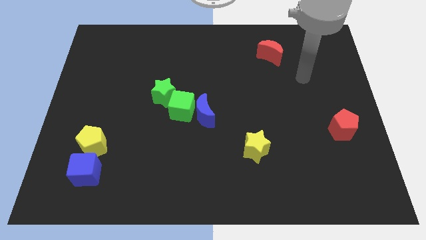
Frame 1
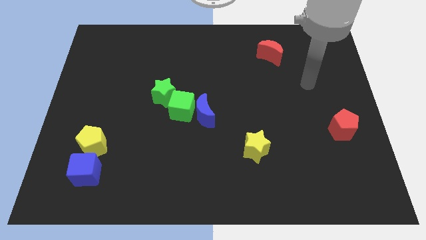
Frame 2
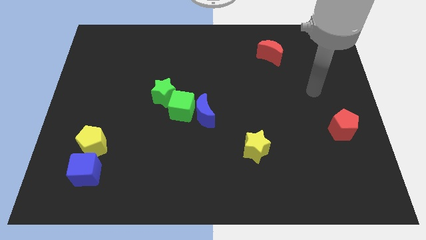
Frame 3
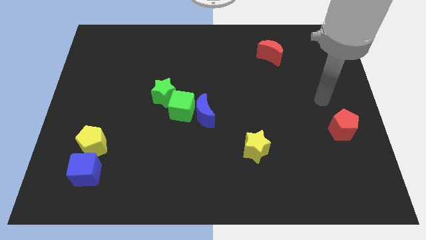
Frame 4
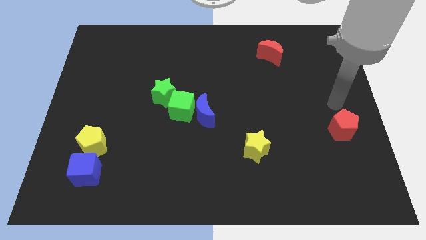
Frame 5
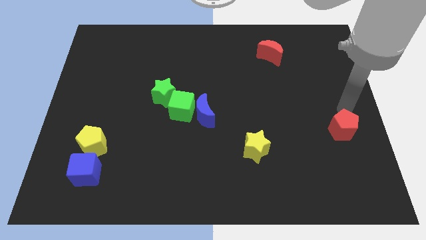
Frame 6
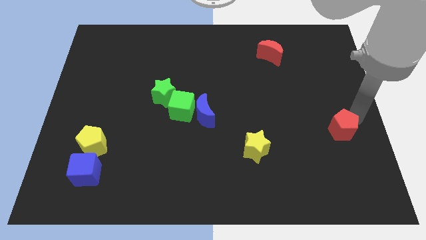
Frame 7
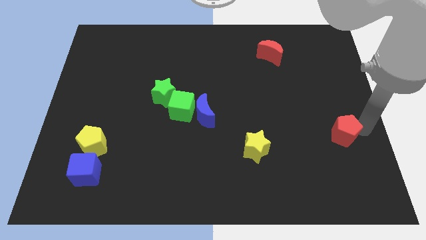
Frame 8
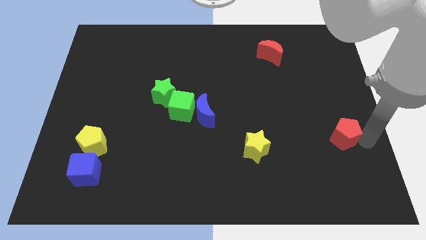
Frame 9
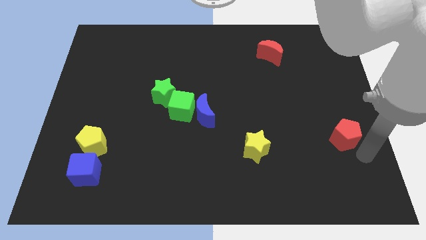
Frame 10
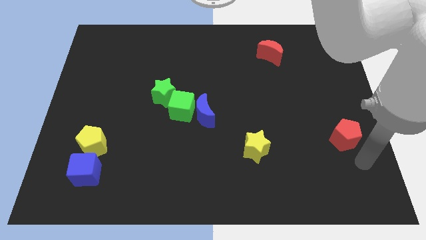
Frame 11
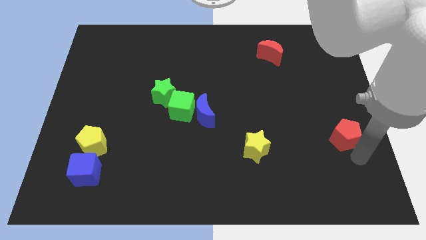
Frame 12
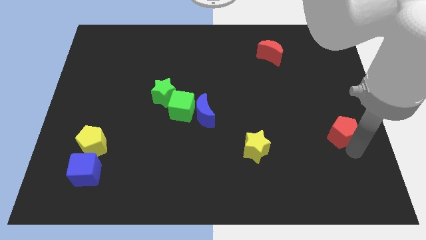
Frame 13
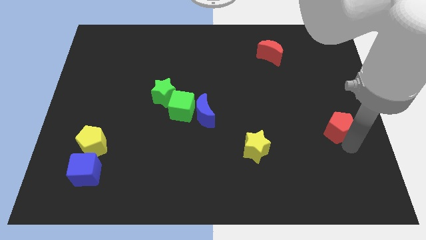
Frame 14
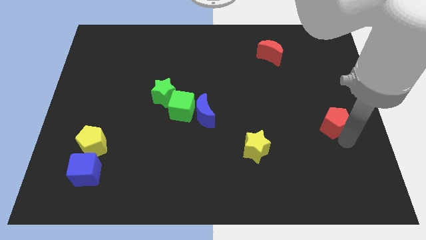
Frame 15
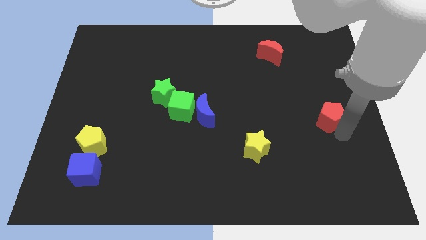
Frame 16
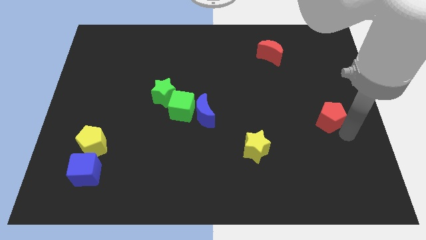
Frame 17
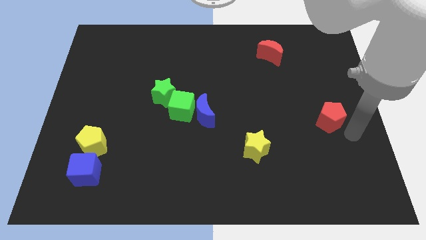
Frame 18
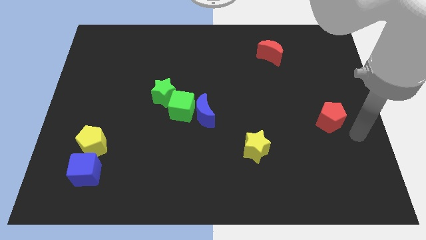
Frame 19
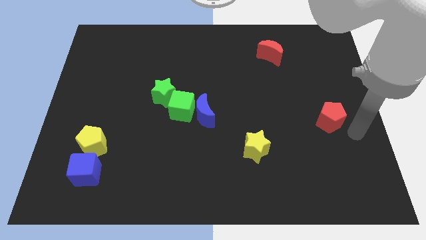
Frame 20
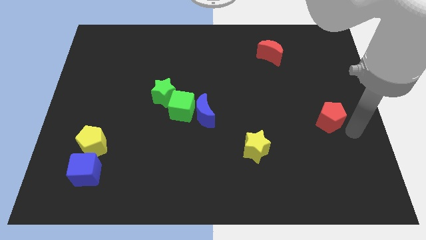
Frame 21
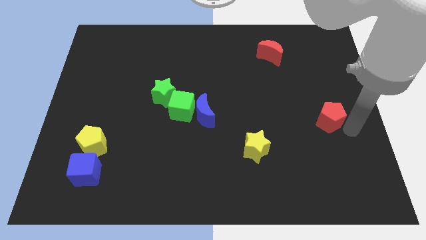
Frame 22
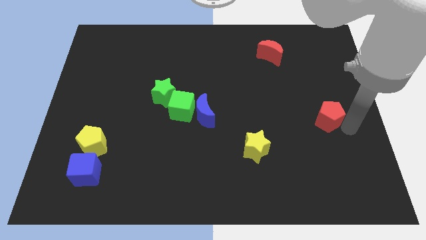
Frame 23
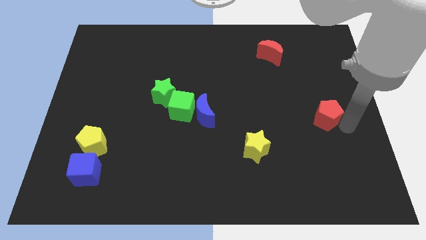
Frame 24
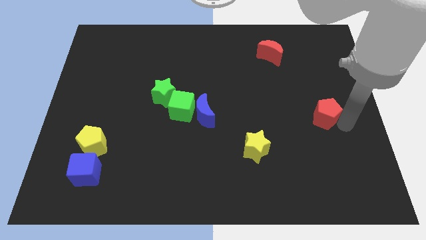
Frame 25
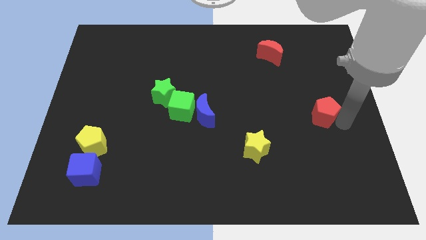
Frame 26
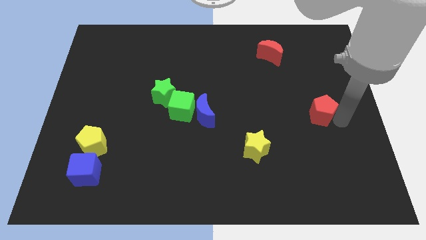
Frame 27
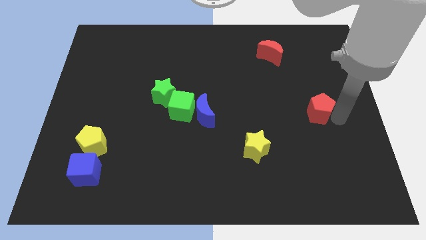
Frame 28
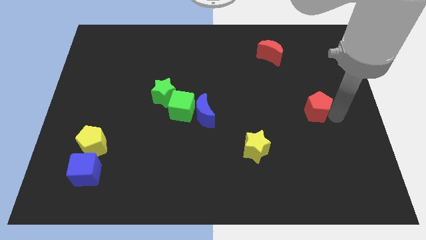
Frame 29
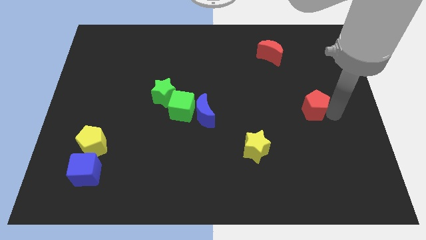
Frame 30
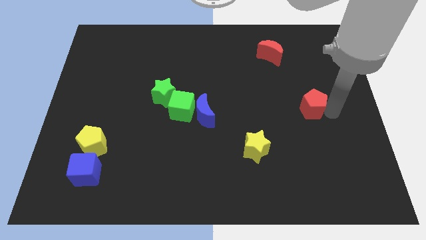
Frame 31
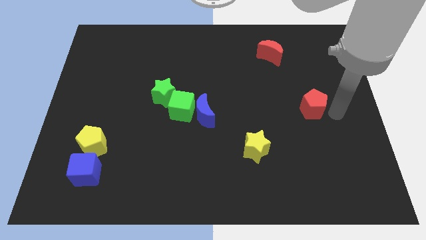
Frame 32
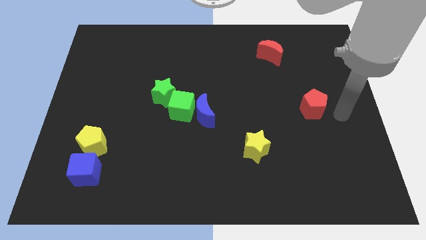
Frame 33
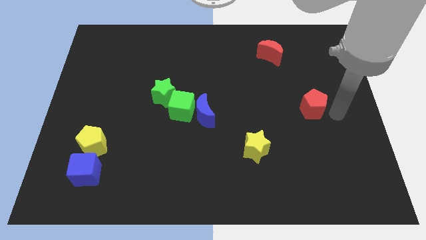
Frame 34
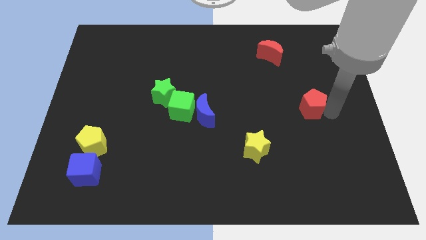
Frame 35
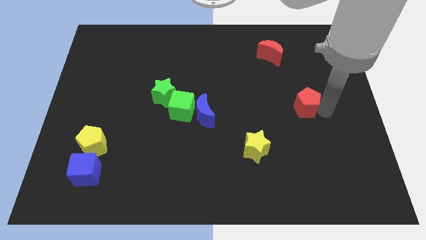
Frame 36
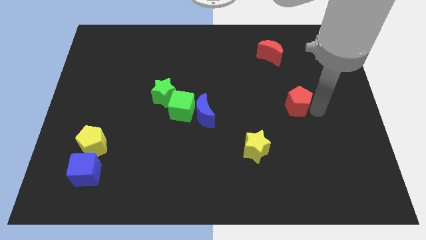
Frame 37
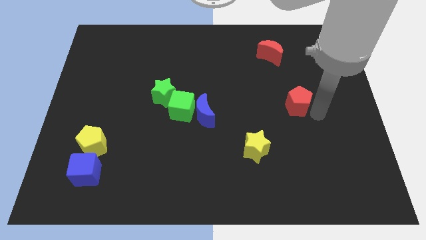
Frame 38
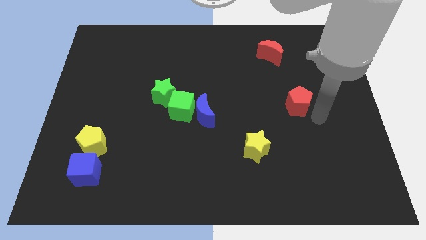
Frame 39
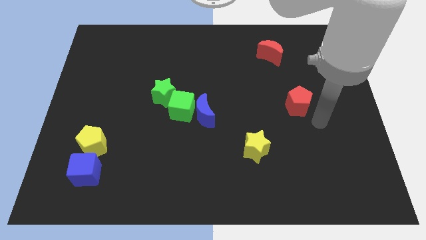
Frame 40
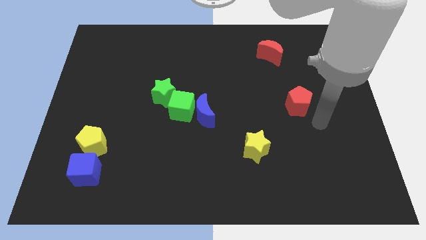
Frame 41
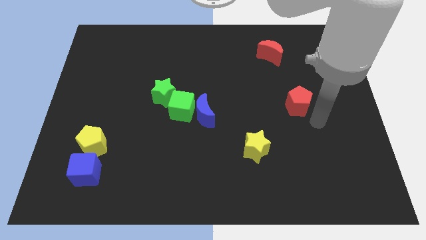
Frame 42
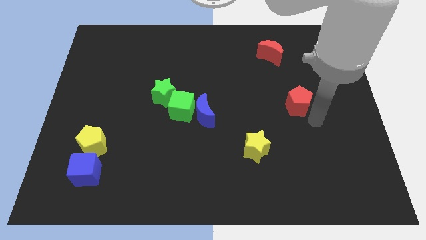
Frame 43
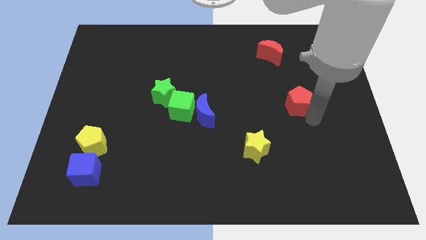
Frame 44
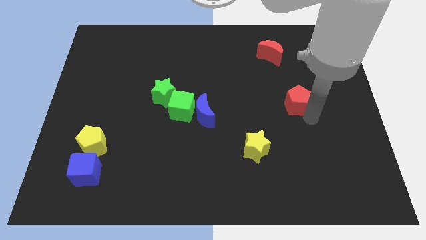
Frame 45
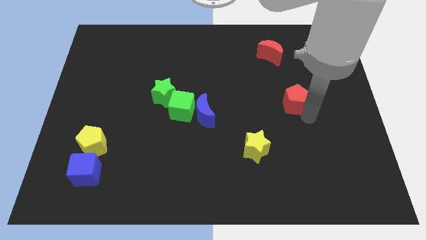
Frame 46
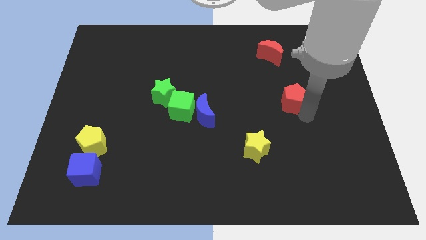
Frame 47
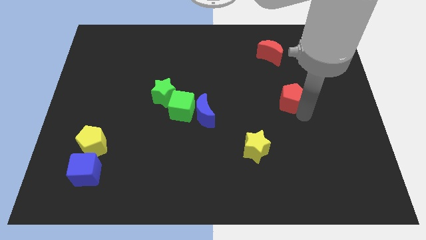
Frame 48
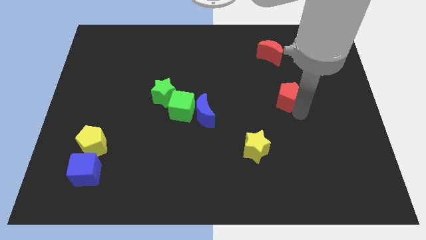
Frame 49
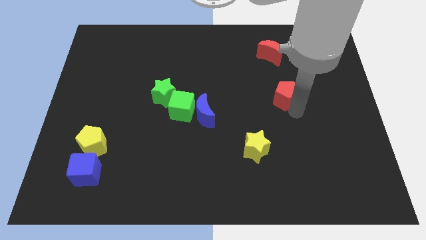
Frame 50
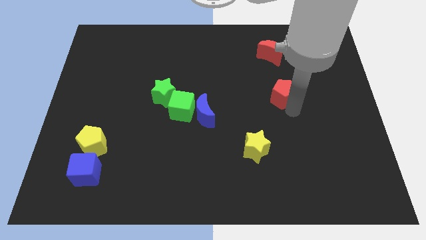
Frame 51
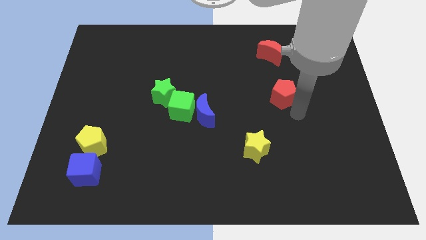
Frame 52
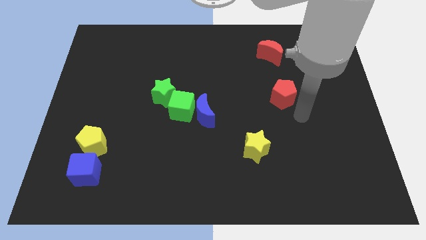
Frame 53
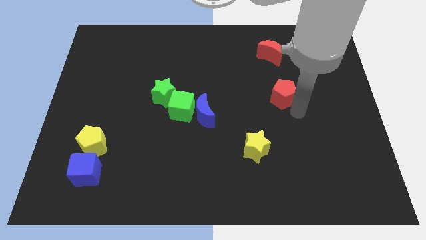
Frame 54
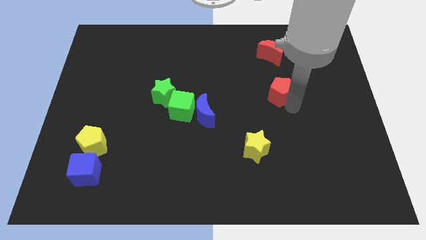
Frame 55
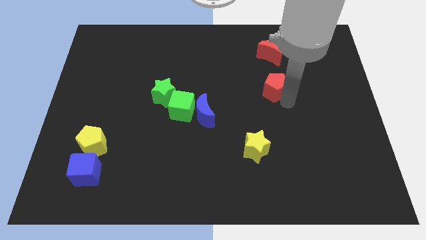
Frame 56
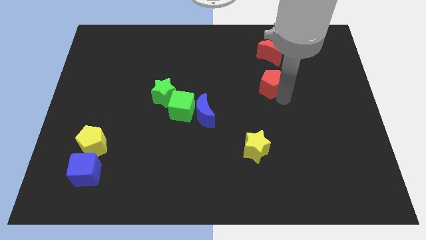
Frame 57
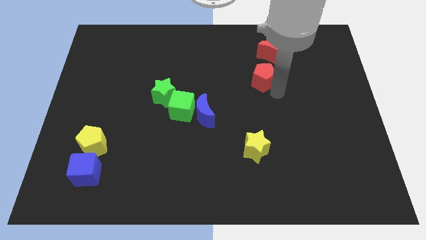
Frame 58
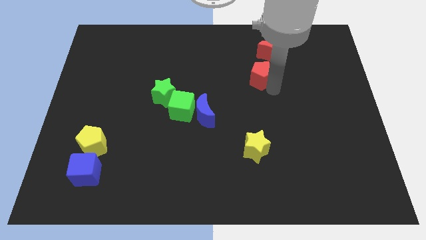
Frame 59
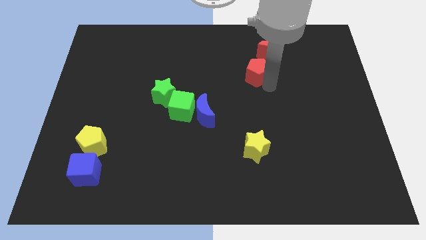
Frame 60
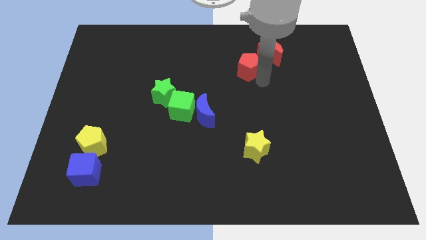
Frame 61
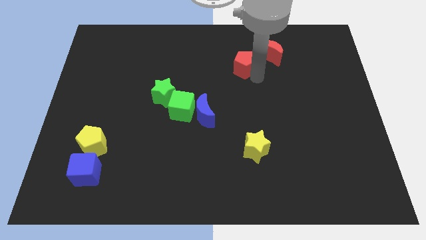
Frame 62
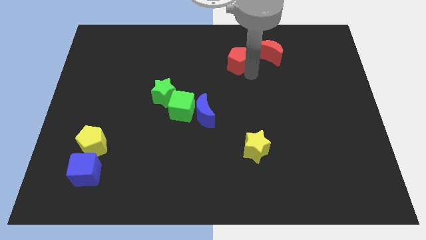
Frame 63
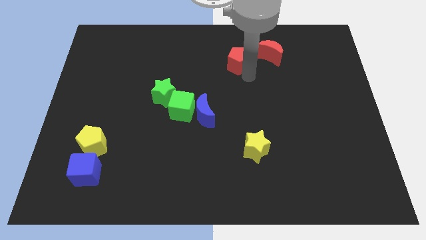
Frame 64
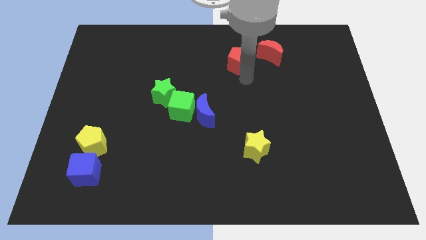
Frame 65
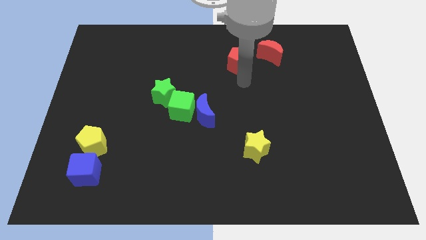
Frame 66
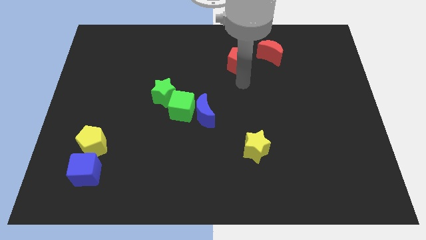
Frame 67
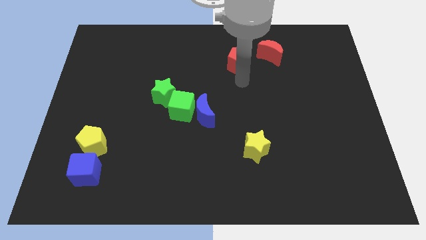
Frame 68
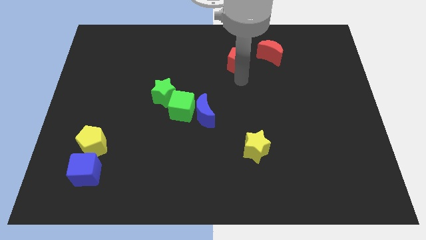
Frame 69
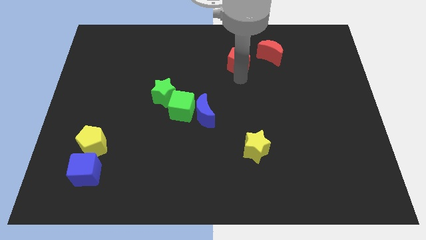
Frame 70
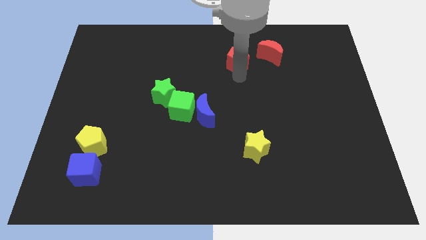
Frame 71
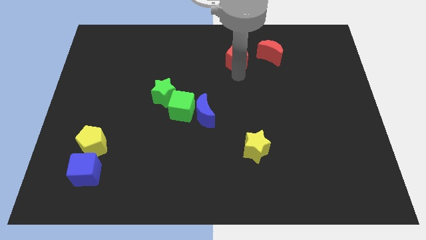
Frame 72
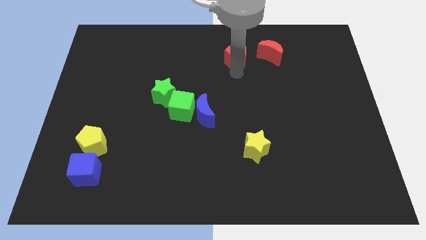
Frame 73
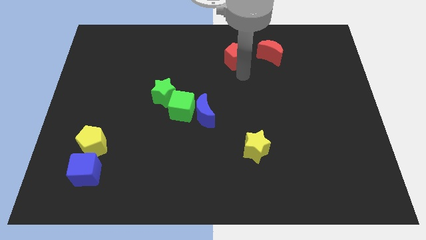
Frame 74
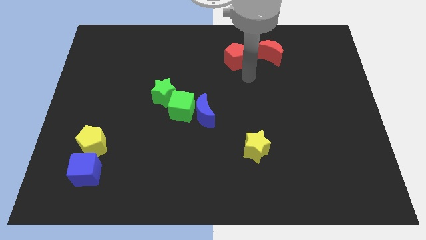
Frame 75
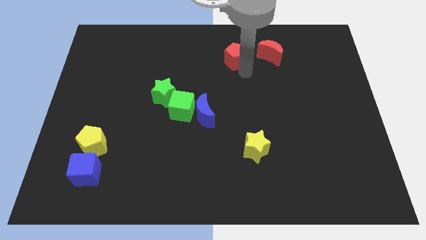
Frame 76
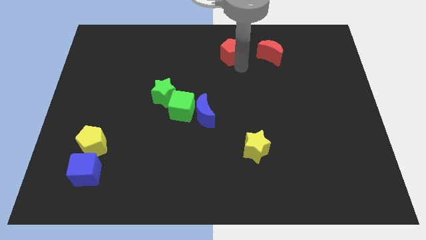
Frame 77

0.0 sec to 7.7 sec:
push the red pentagon to the towards your base
